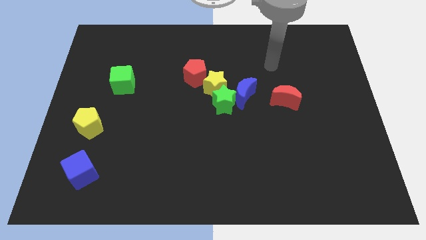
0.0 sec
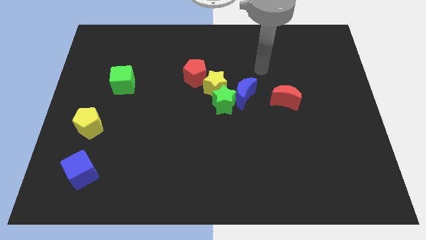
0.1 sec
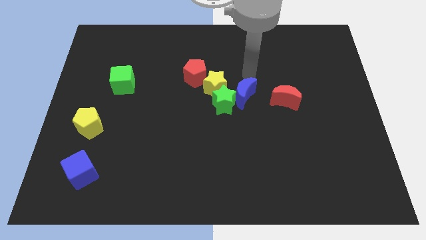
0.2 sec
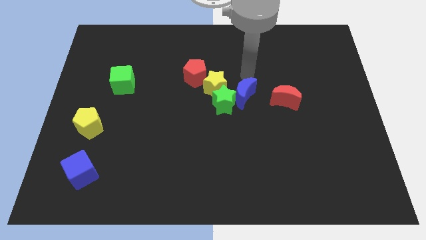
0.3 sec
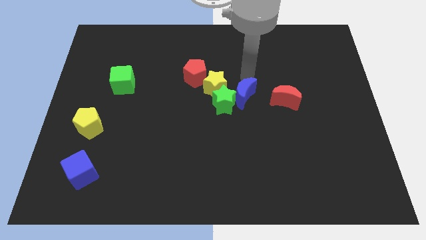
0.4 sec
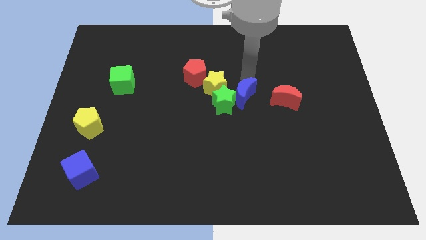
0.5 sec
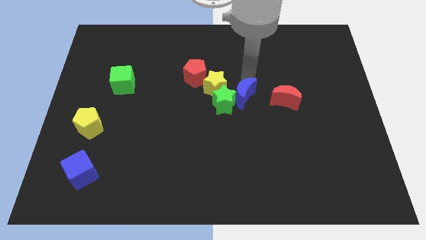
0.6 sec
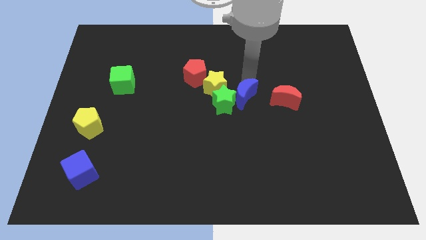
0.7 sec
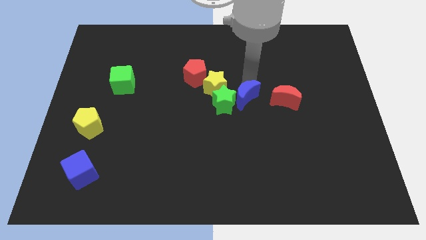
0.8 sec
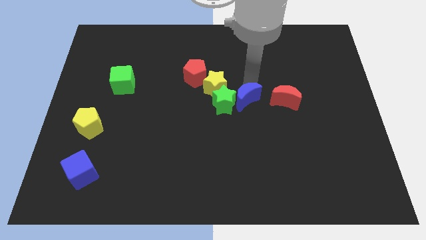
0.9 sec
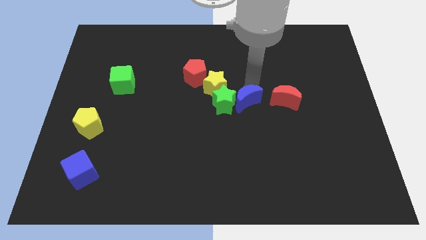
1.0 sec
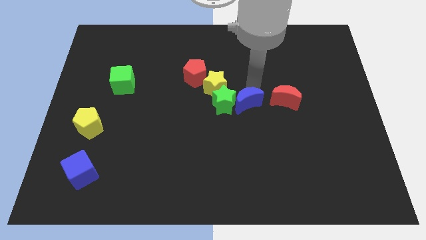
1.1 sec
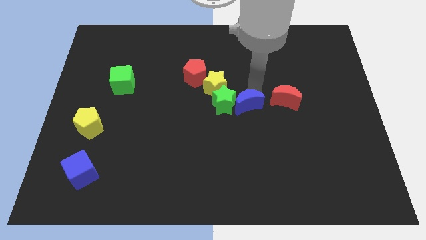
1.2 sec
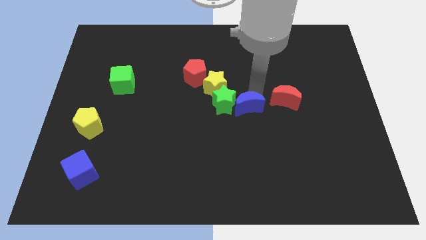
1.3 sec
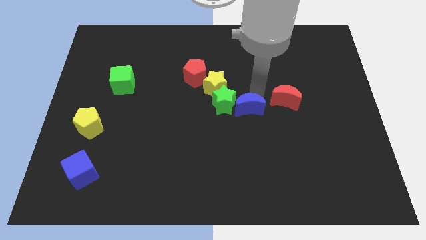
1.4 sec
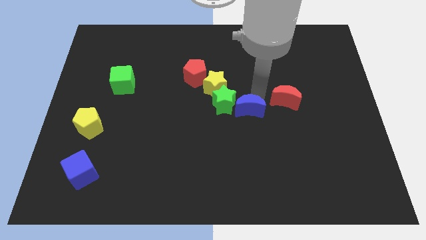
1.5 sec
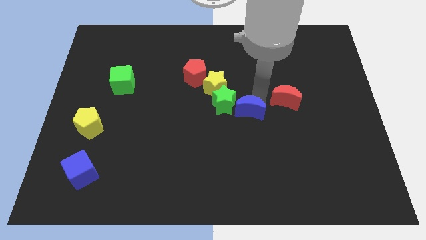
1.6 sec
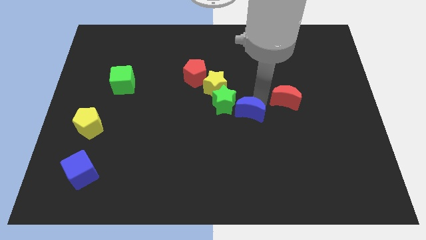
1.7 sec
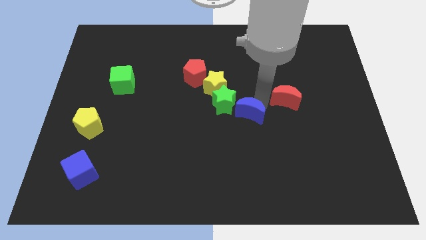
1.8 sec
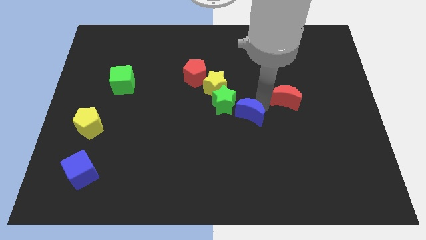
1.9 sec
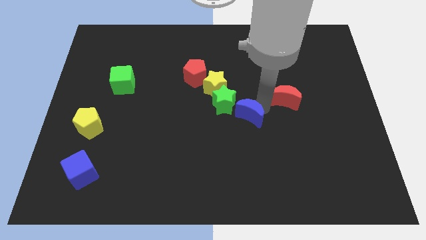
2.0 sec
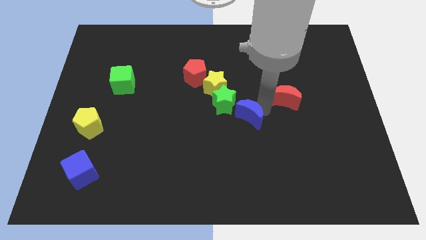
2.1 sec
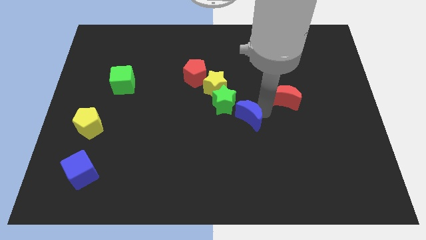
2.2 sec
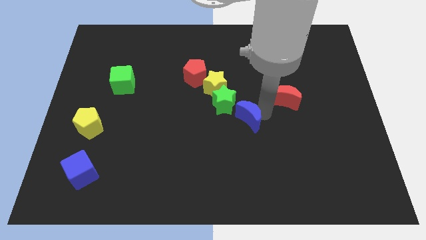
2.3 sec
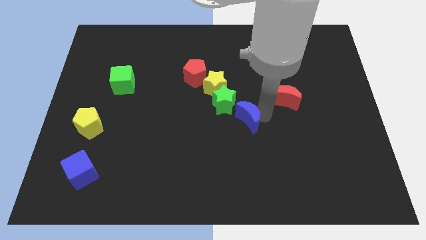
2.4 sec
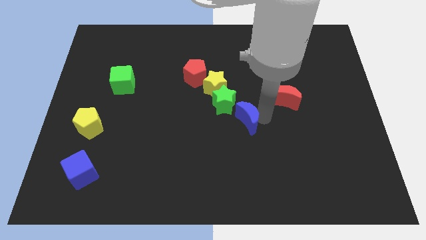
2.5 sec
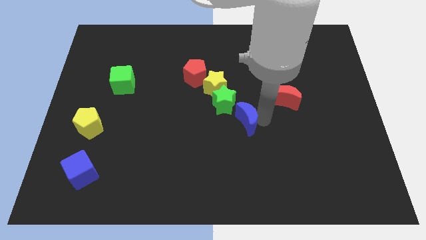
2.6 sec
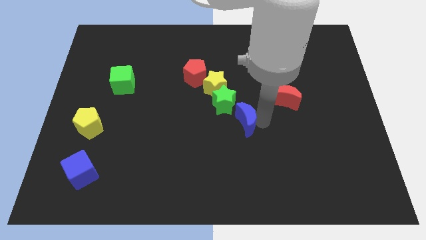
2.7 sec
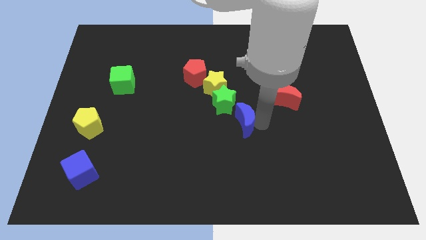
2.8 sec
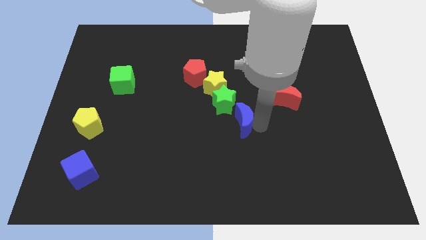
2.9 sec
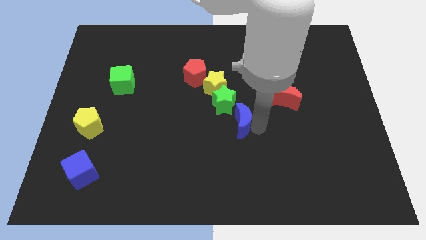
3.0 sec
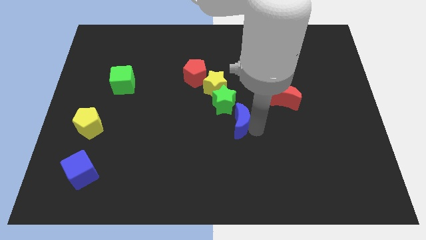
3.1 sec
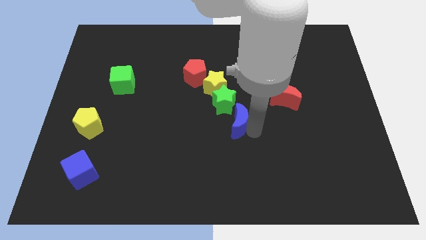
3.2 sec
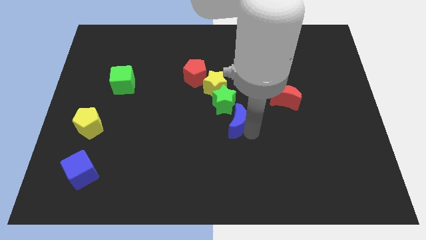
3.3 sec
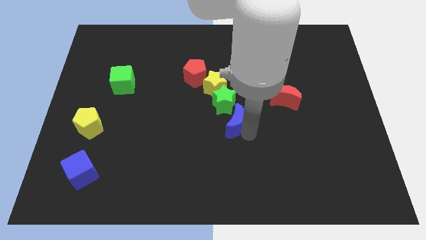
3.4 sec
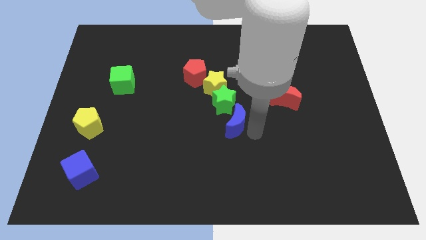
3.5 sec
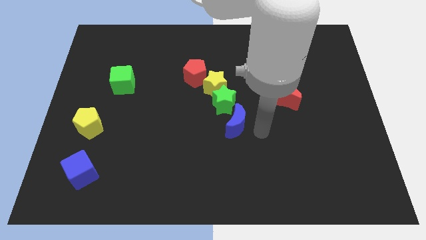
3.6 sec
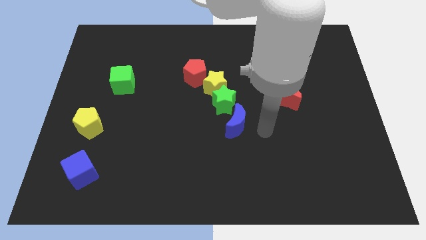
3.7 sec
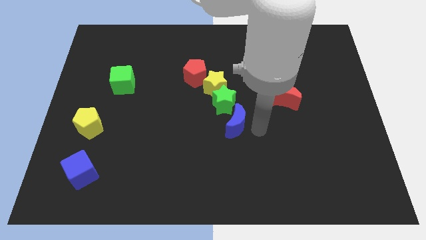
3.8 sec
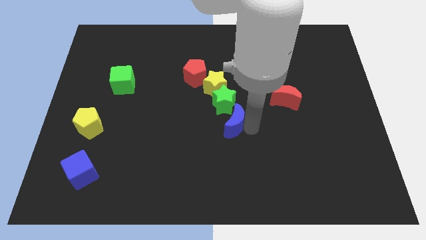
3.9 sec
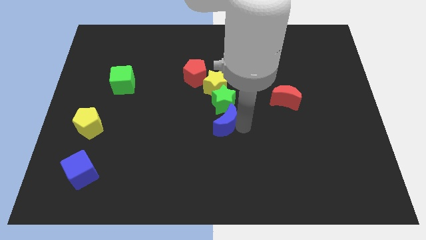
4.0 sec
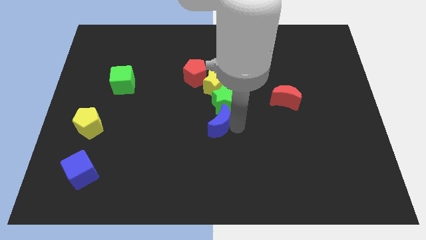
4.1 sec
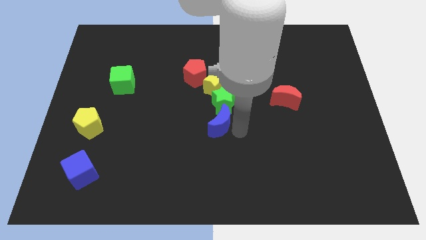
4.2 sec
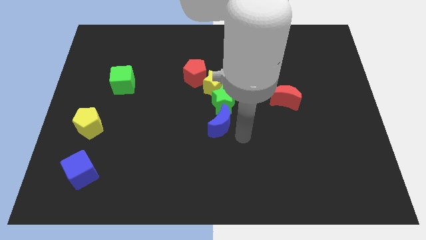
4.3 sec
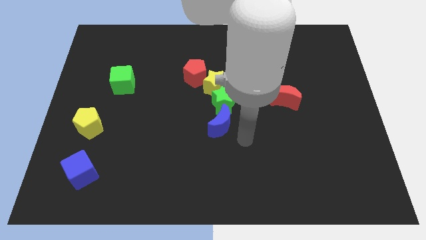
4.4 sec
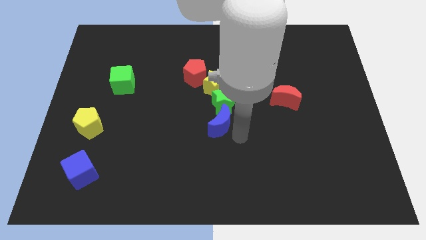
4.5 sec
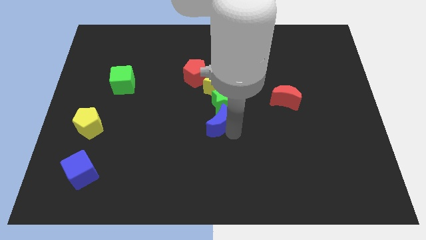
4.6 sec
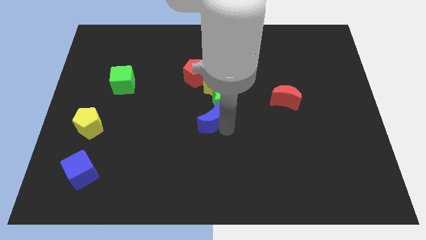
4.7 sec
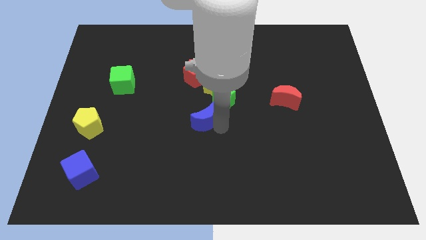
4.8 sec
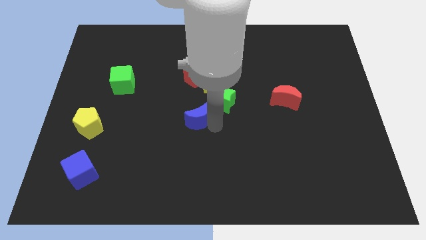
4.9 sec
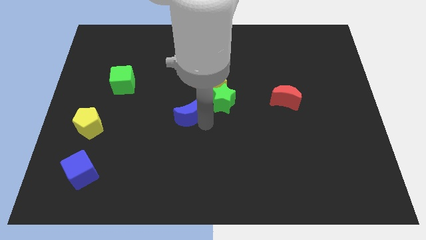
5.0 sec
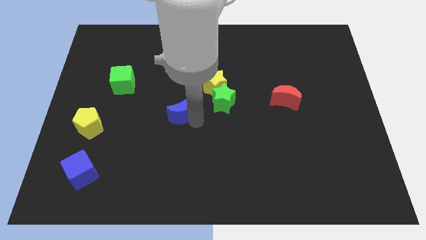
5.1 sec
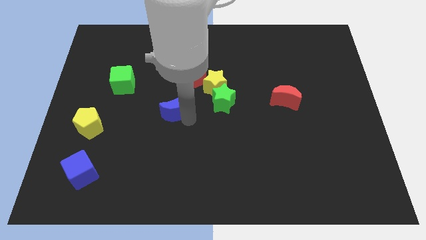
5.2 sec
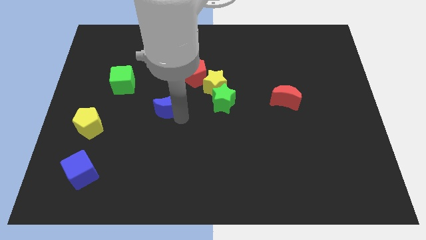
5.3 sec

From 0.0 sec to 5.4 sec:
push the blue moon diagonally down and to the left of the red pentagon

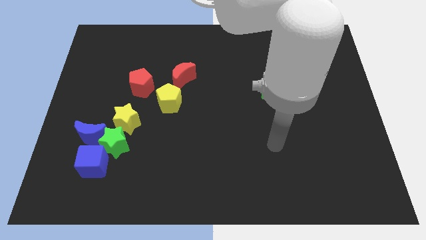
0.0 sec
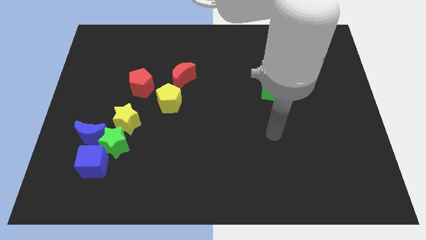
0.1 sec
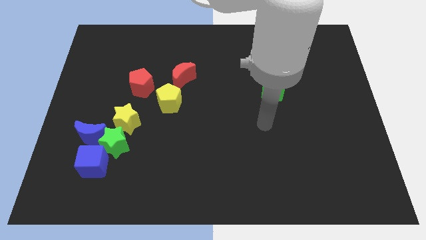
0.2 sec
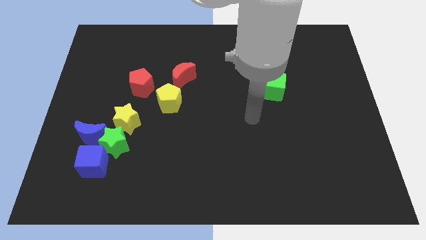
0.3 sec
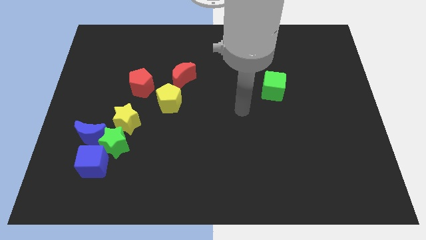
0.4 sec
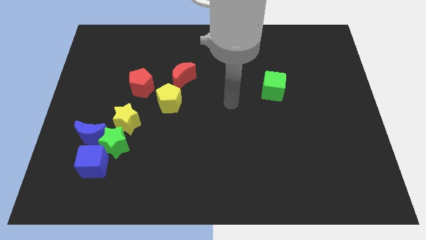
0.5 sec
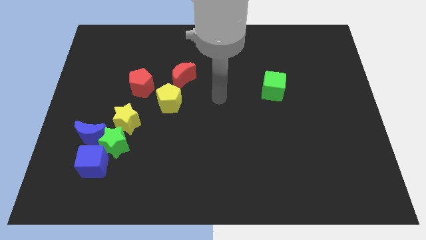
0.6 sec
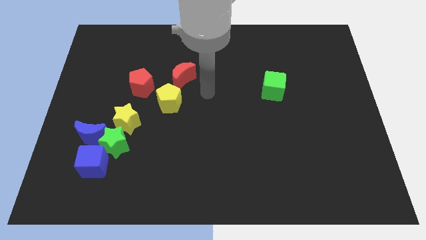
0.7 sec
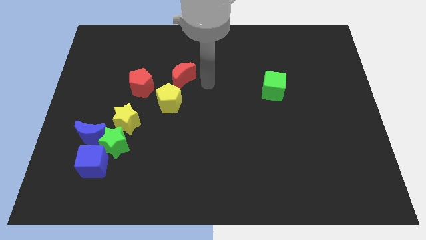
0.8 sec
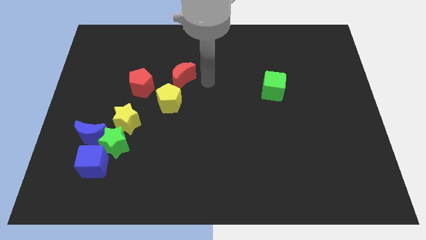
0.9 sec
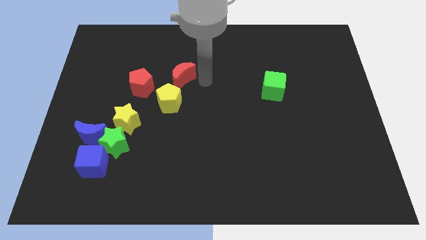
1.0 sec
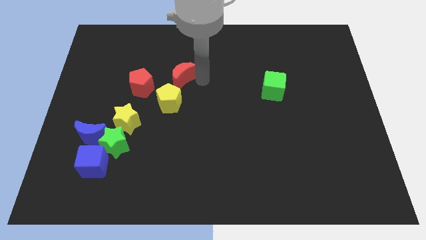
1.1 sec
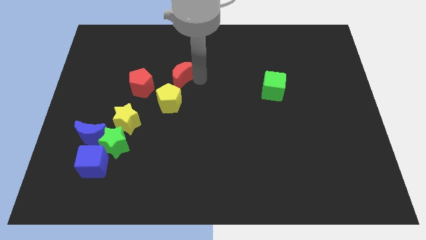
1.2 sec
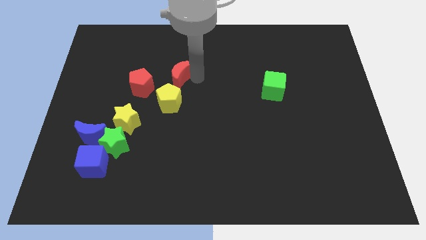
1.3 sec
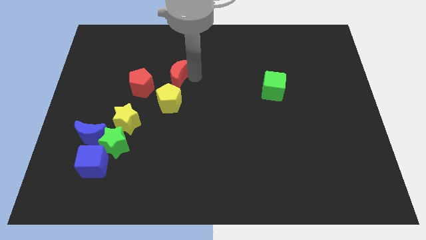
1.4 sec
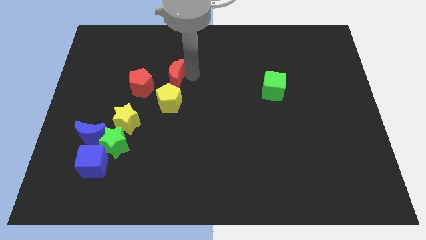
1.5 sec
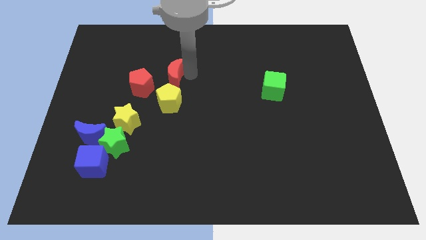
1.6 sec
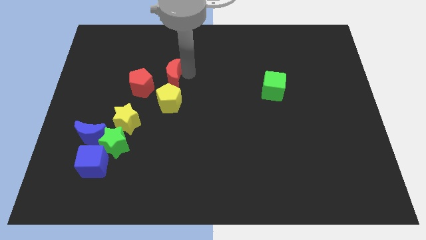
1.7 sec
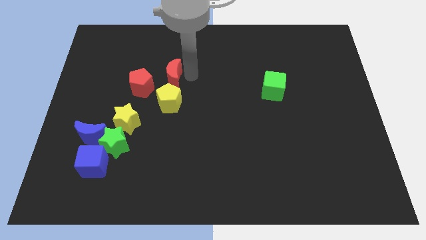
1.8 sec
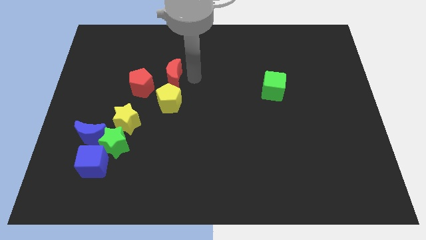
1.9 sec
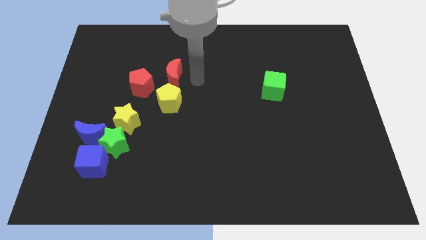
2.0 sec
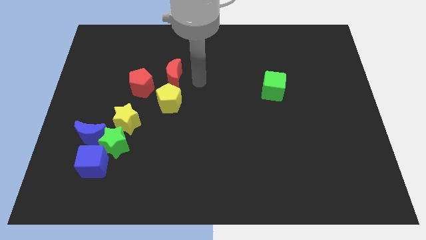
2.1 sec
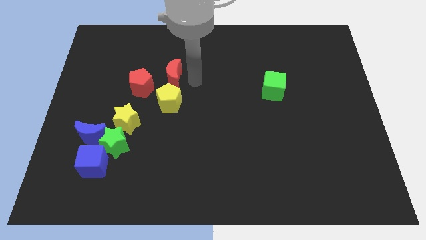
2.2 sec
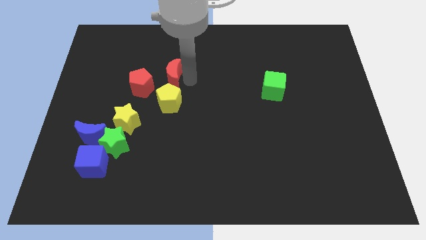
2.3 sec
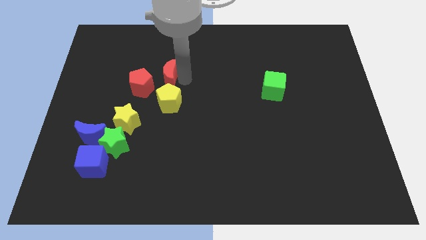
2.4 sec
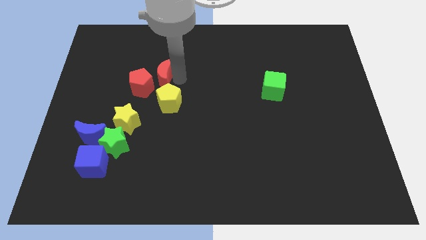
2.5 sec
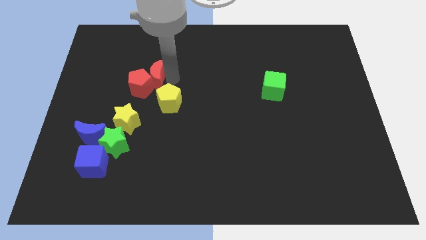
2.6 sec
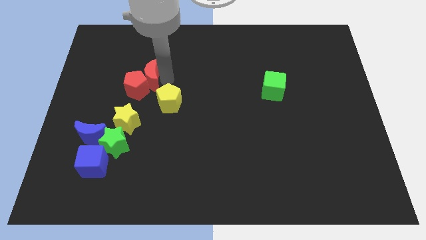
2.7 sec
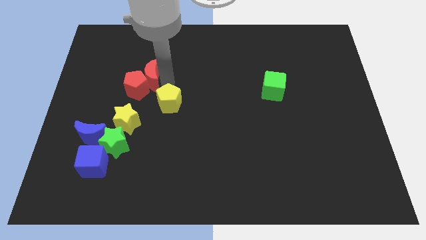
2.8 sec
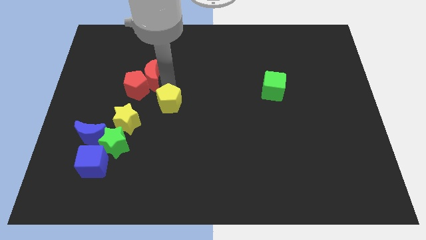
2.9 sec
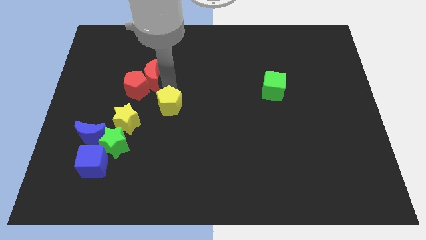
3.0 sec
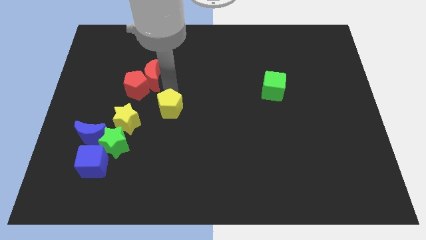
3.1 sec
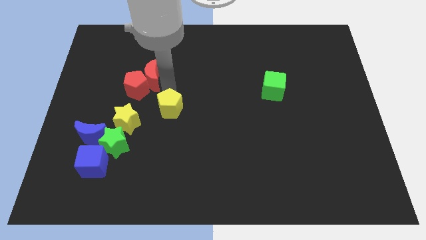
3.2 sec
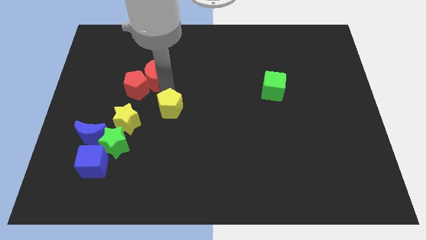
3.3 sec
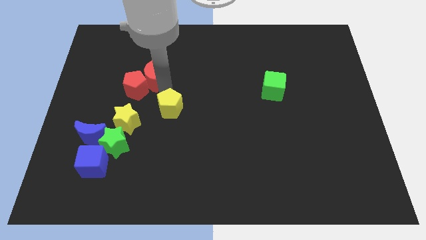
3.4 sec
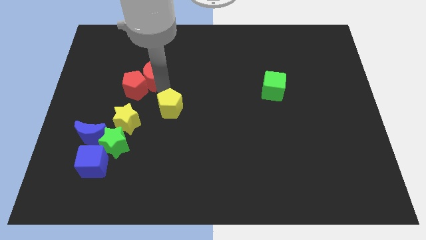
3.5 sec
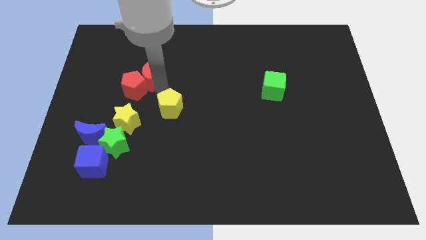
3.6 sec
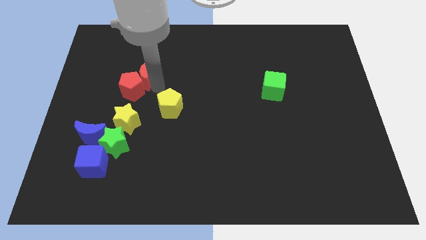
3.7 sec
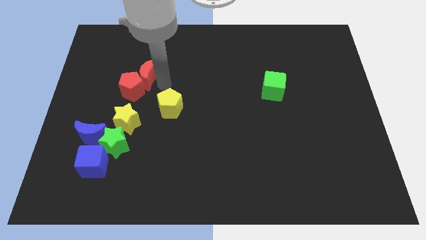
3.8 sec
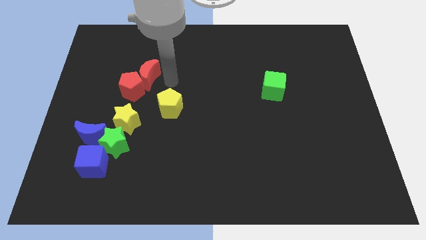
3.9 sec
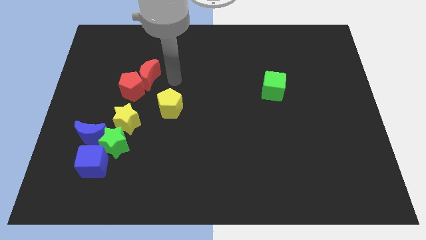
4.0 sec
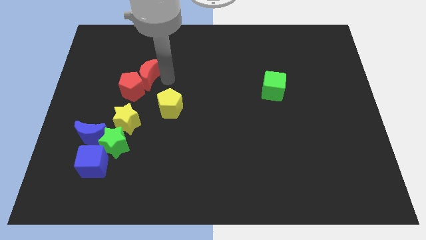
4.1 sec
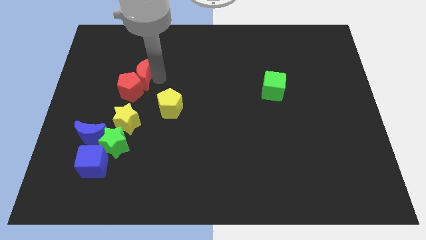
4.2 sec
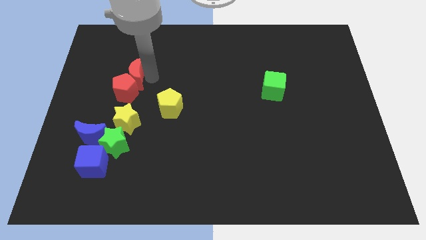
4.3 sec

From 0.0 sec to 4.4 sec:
move the red moon to the top left of the red pentagon
